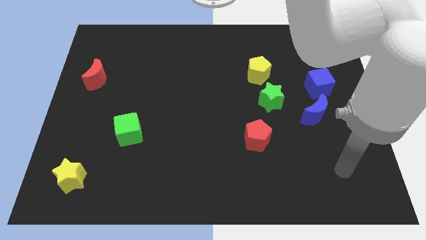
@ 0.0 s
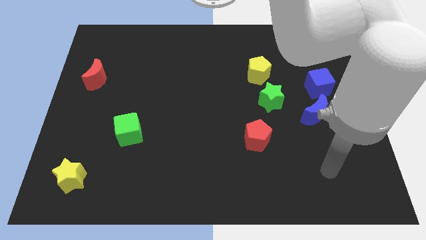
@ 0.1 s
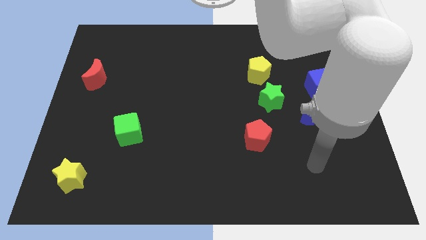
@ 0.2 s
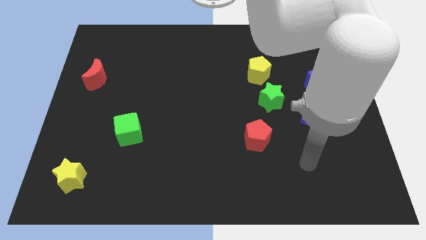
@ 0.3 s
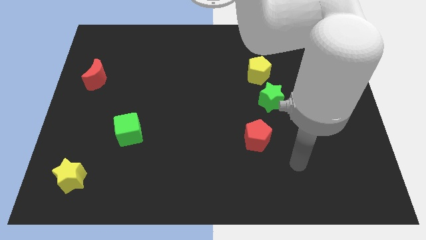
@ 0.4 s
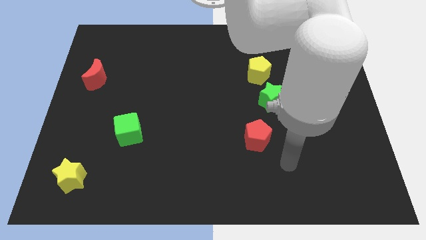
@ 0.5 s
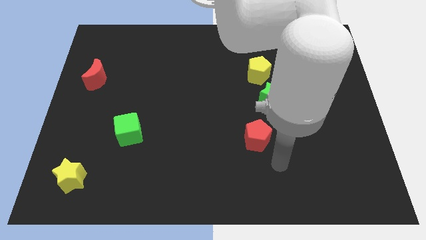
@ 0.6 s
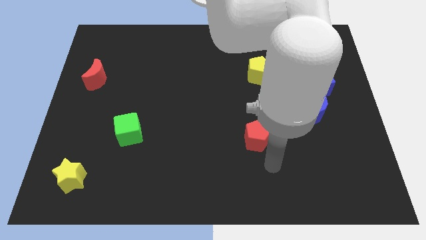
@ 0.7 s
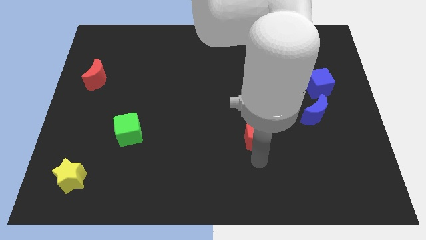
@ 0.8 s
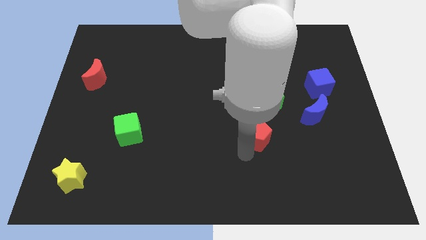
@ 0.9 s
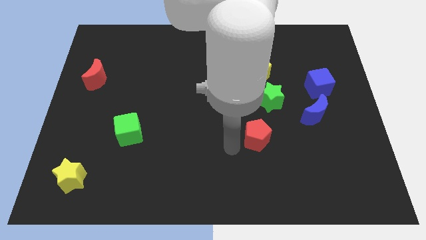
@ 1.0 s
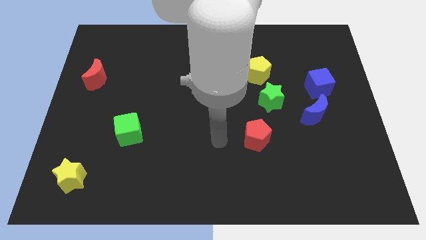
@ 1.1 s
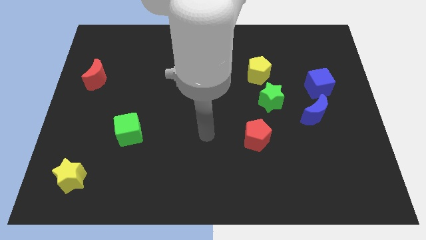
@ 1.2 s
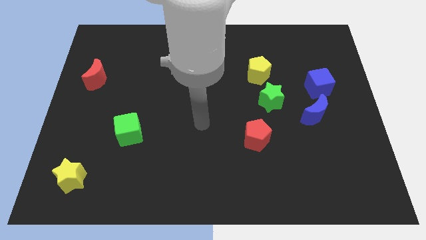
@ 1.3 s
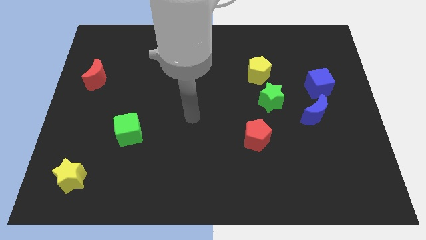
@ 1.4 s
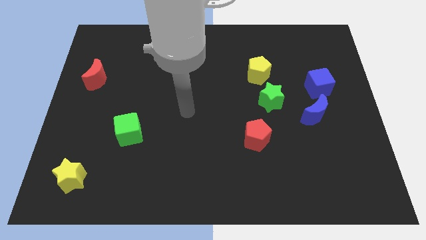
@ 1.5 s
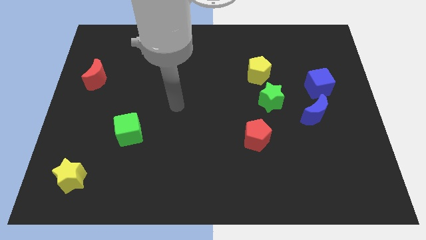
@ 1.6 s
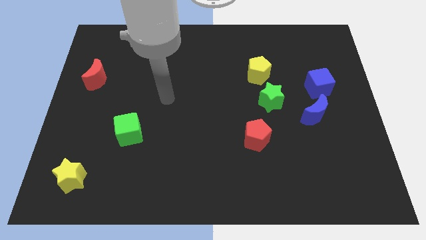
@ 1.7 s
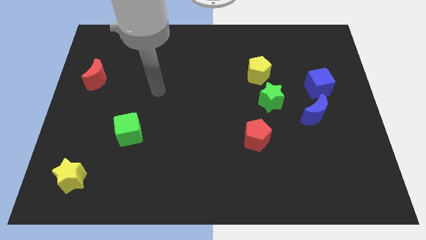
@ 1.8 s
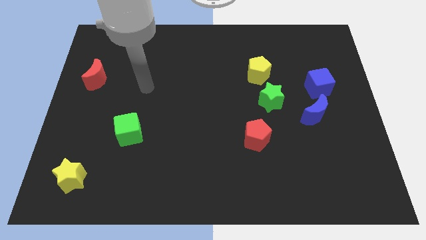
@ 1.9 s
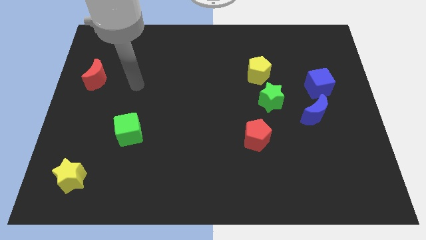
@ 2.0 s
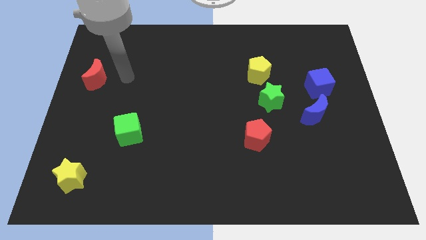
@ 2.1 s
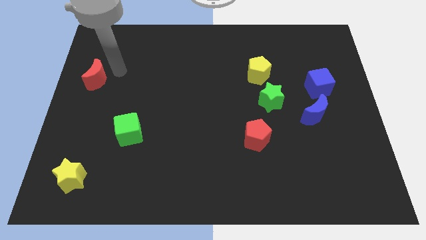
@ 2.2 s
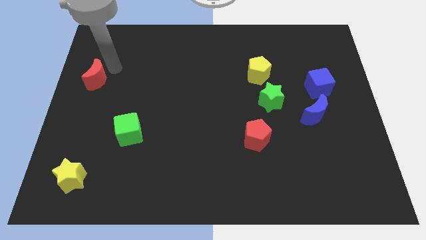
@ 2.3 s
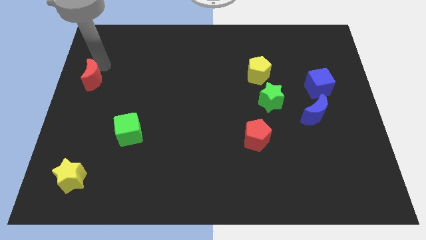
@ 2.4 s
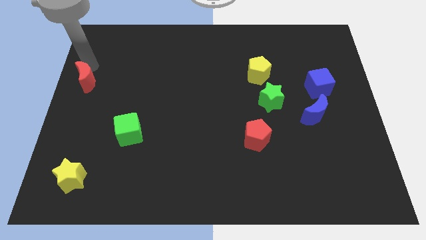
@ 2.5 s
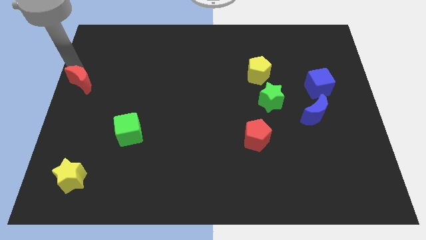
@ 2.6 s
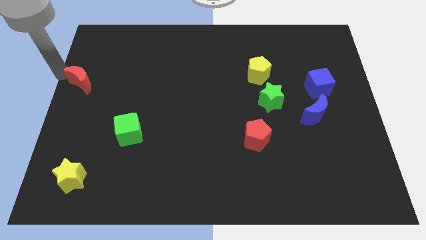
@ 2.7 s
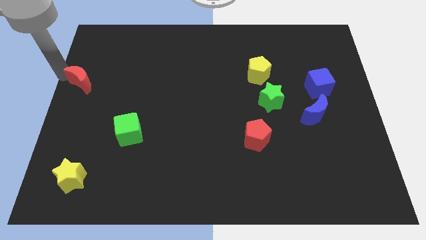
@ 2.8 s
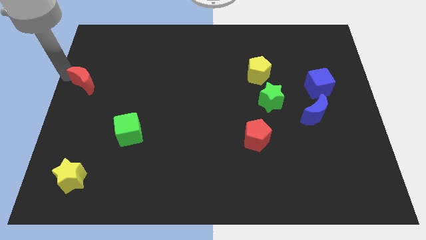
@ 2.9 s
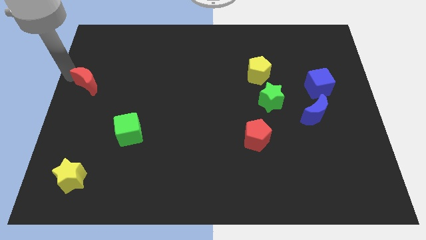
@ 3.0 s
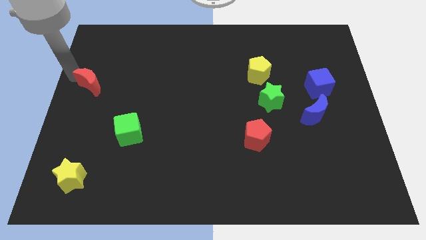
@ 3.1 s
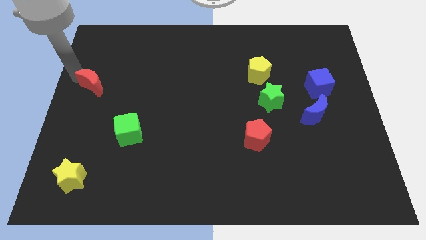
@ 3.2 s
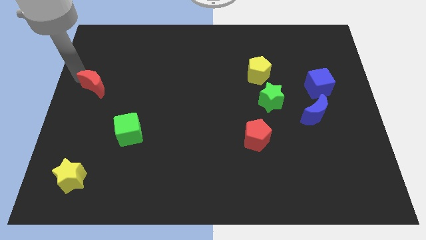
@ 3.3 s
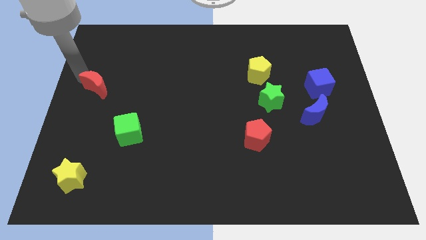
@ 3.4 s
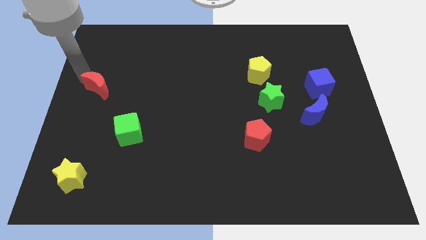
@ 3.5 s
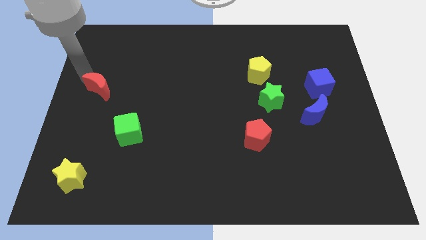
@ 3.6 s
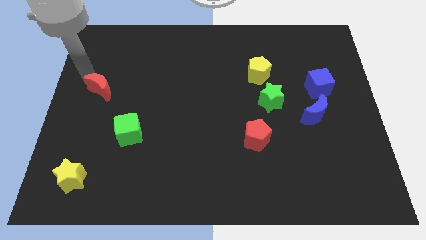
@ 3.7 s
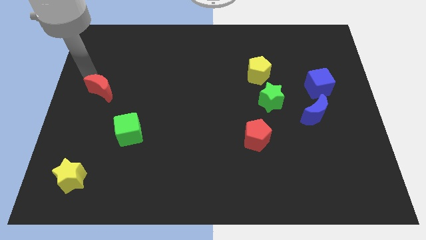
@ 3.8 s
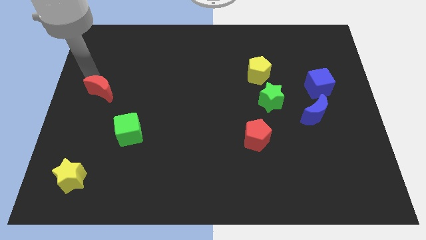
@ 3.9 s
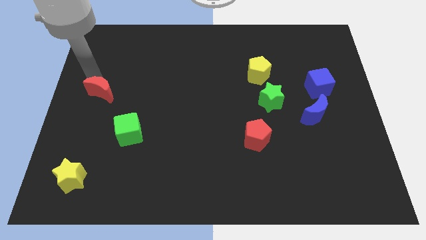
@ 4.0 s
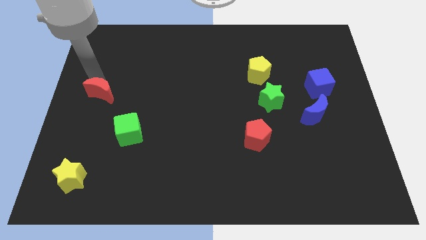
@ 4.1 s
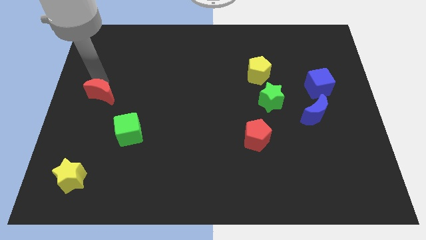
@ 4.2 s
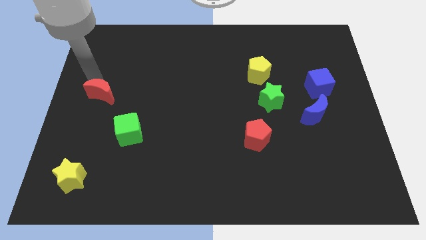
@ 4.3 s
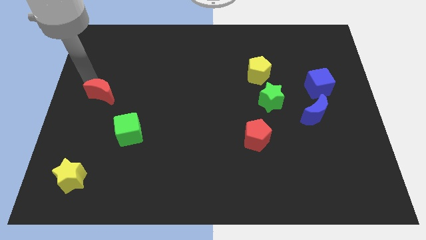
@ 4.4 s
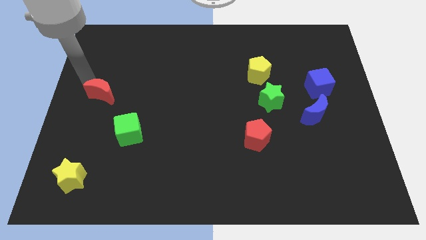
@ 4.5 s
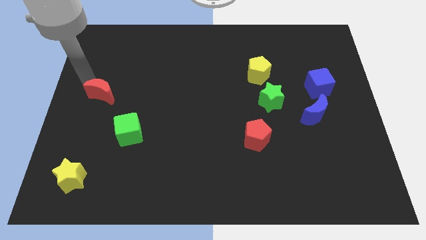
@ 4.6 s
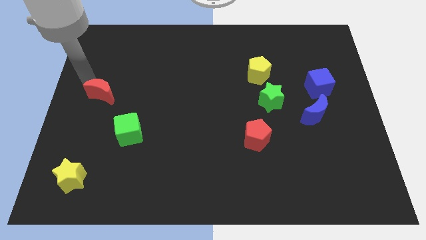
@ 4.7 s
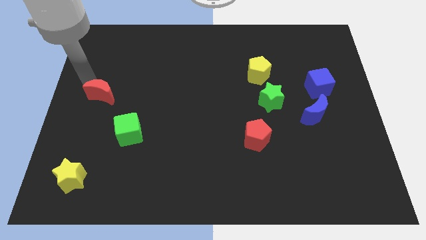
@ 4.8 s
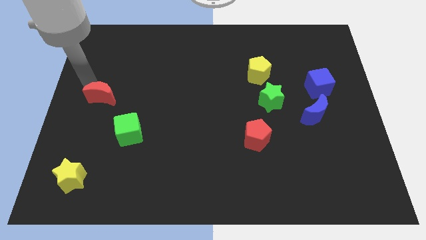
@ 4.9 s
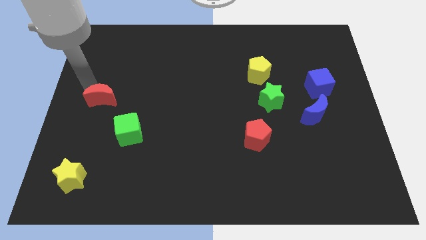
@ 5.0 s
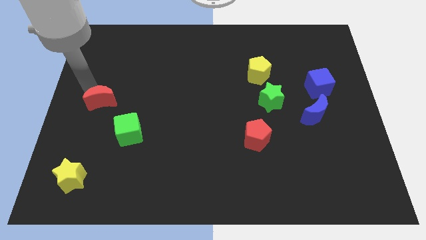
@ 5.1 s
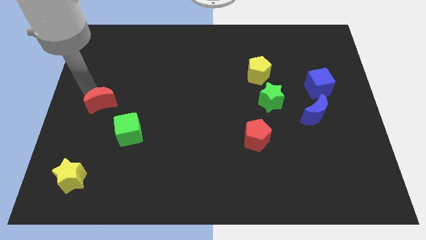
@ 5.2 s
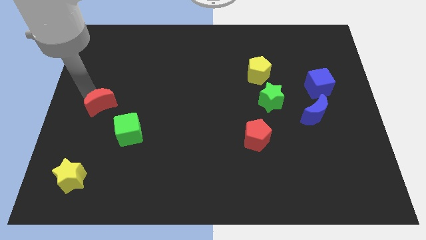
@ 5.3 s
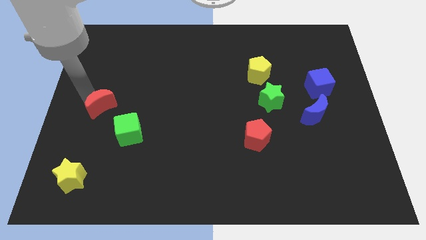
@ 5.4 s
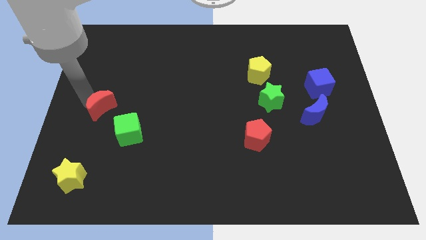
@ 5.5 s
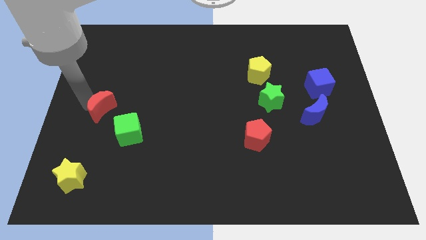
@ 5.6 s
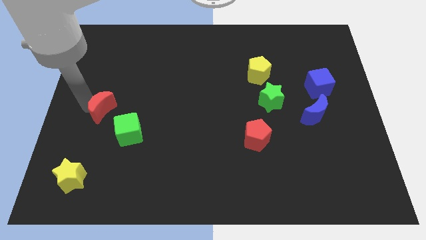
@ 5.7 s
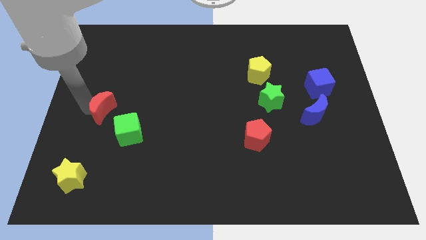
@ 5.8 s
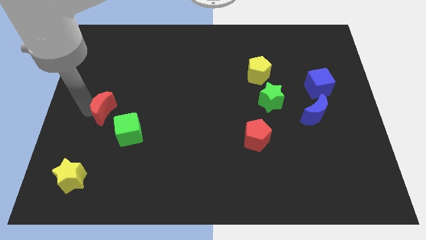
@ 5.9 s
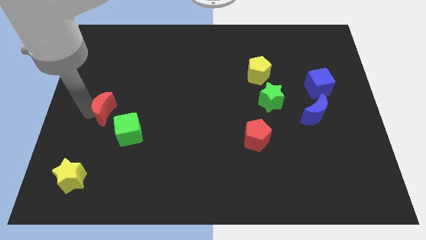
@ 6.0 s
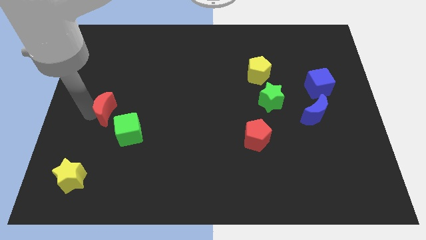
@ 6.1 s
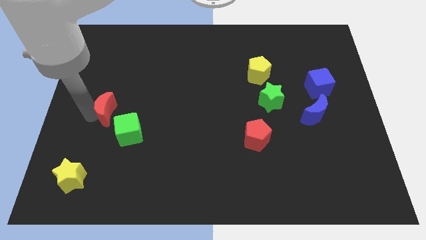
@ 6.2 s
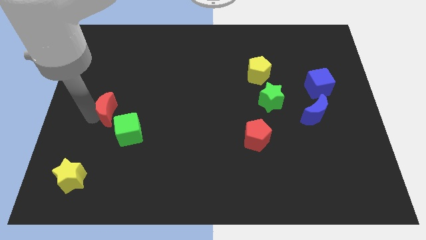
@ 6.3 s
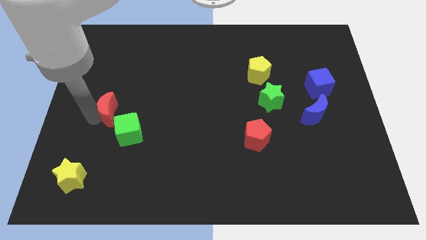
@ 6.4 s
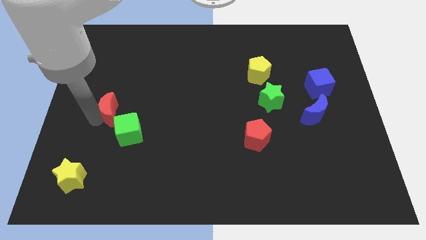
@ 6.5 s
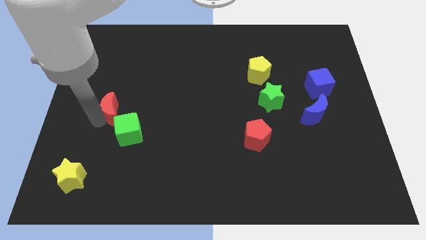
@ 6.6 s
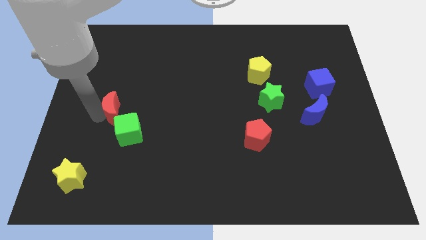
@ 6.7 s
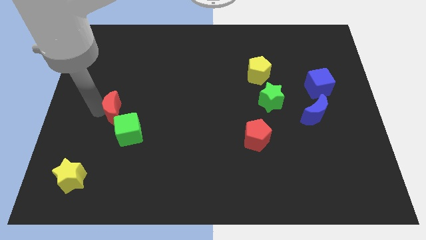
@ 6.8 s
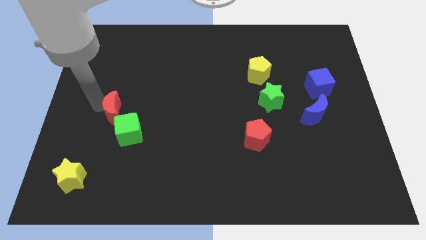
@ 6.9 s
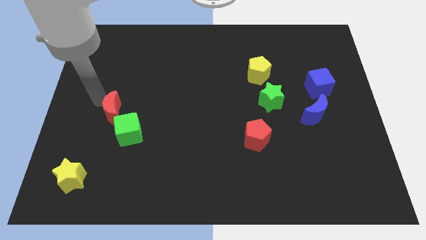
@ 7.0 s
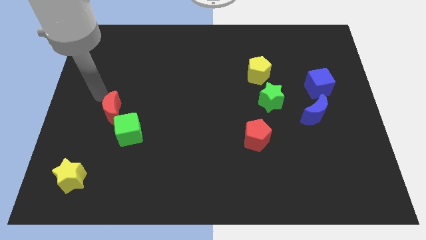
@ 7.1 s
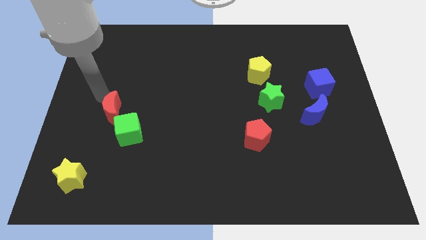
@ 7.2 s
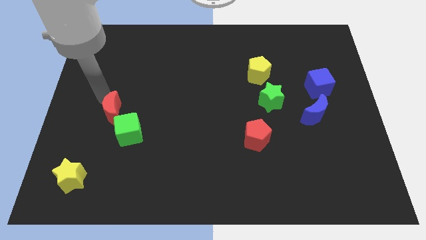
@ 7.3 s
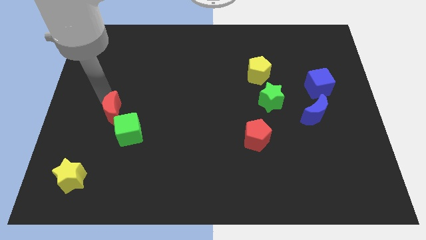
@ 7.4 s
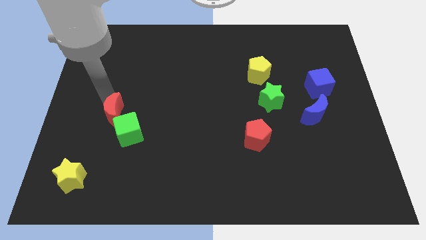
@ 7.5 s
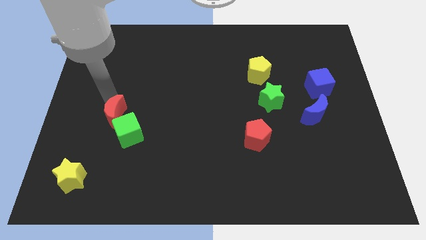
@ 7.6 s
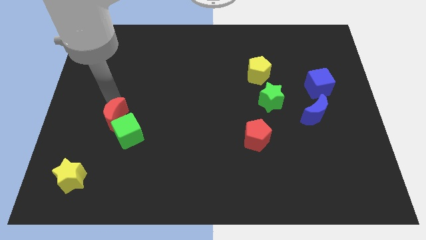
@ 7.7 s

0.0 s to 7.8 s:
move the red moon to the green cube

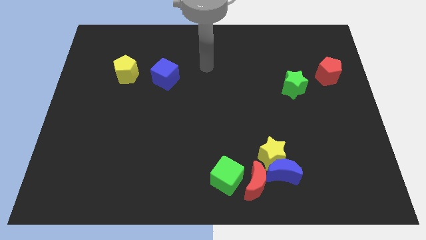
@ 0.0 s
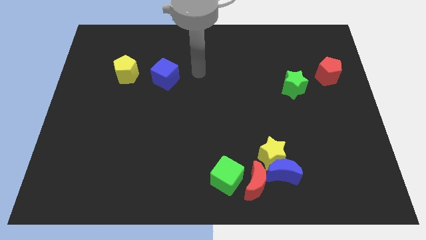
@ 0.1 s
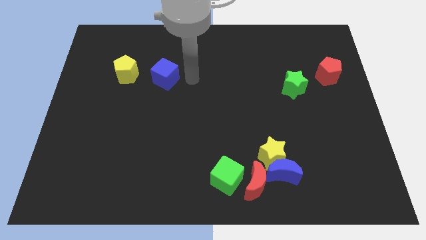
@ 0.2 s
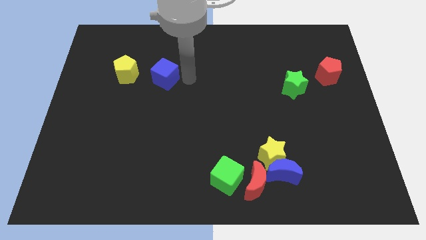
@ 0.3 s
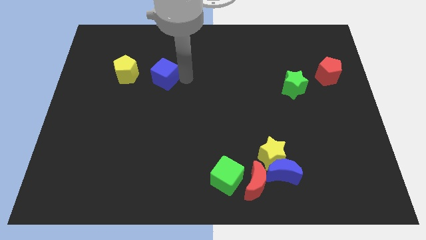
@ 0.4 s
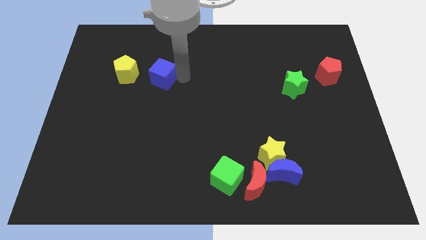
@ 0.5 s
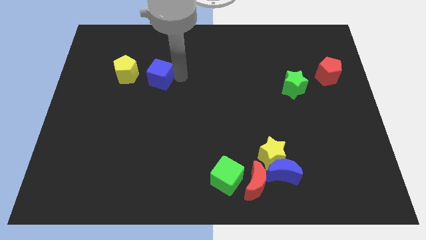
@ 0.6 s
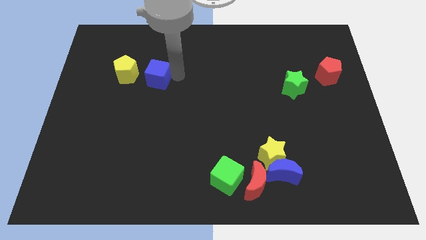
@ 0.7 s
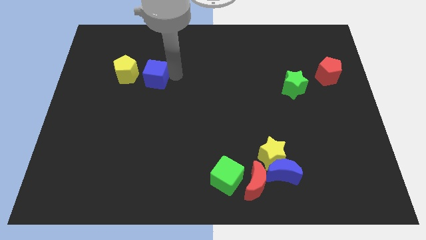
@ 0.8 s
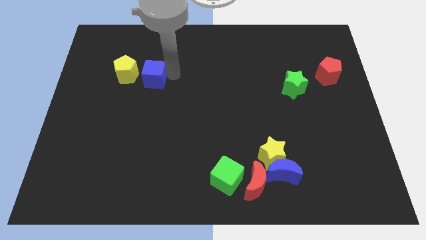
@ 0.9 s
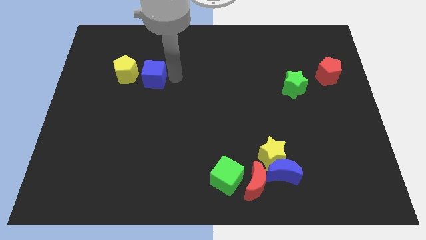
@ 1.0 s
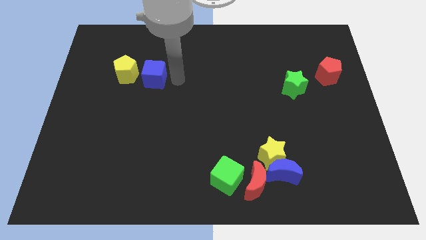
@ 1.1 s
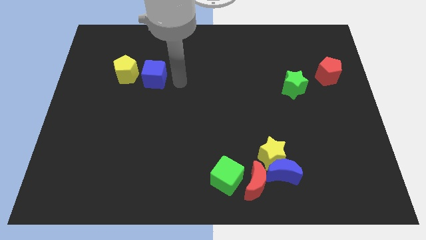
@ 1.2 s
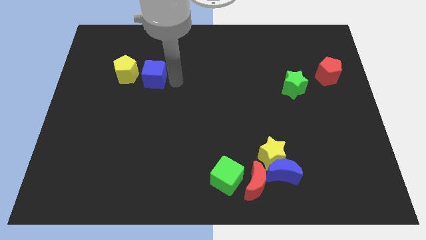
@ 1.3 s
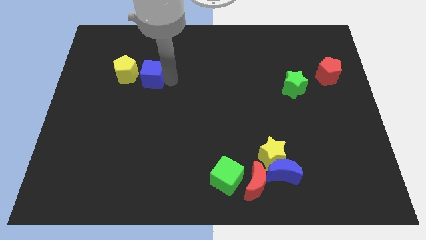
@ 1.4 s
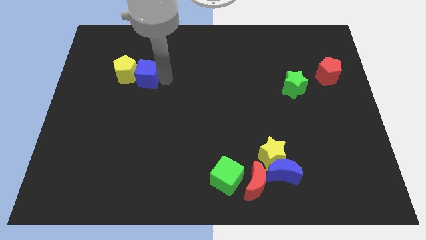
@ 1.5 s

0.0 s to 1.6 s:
move the blue cube to the yellow pentagon
